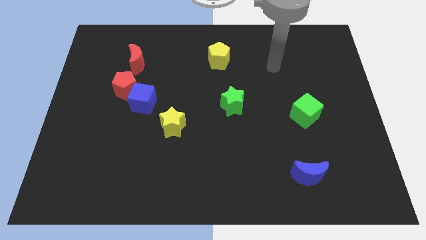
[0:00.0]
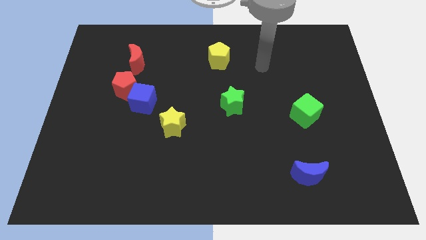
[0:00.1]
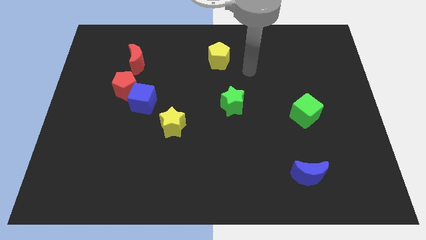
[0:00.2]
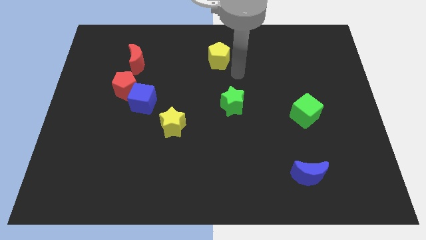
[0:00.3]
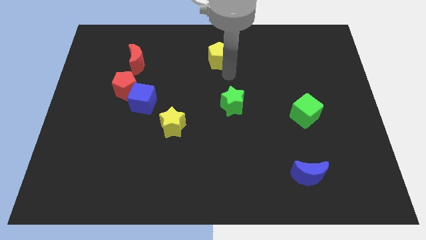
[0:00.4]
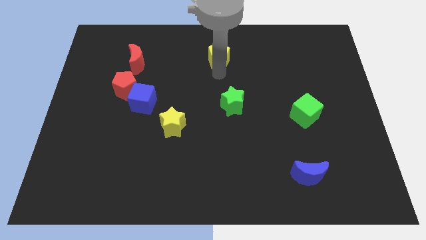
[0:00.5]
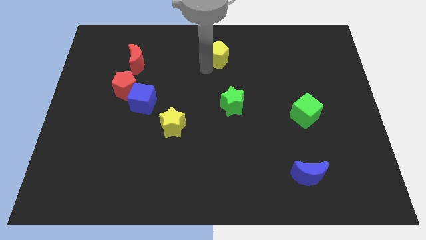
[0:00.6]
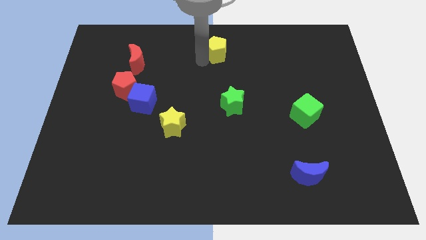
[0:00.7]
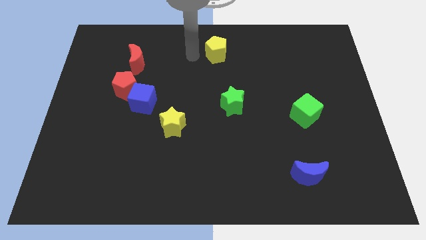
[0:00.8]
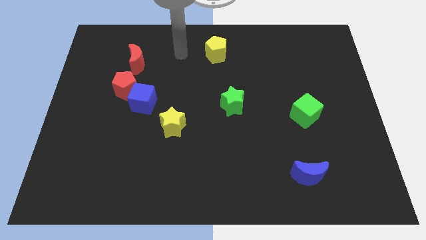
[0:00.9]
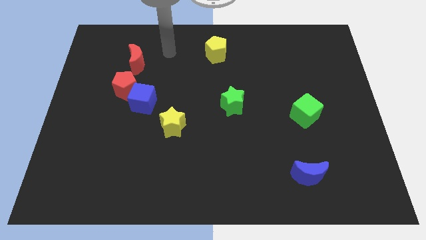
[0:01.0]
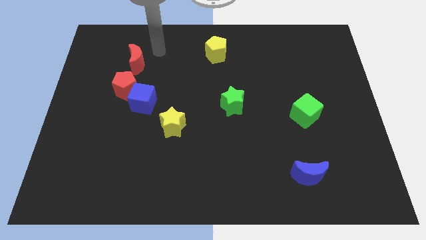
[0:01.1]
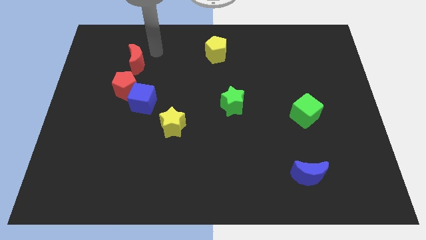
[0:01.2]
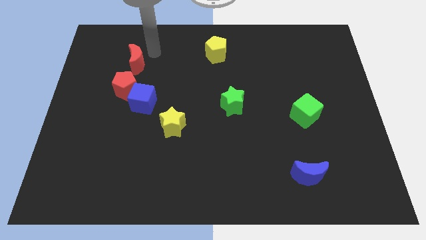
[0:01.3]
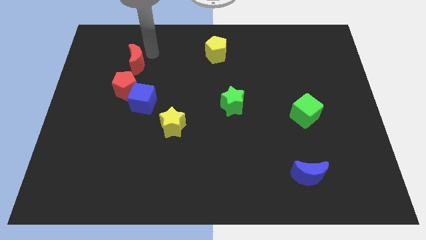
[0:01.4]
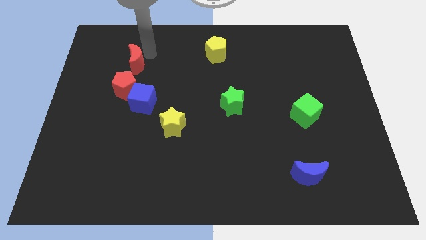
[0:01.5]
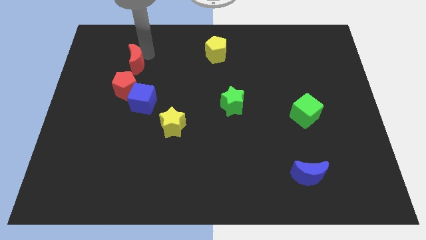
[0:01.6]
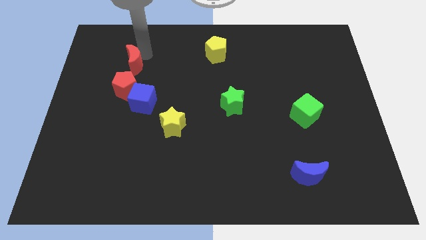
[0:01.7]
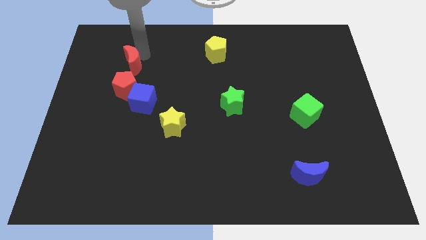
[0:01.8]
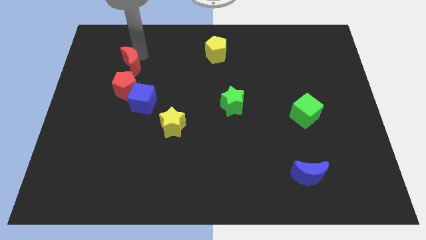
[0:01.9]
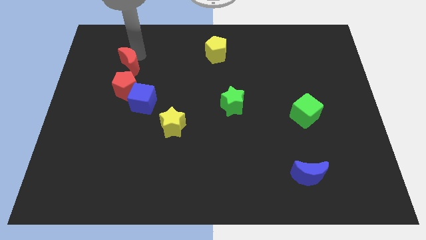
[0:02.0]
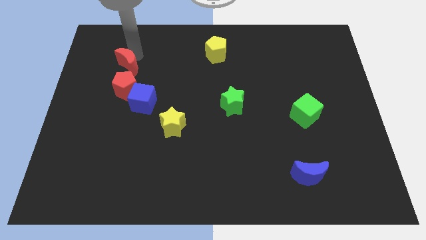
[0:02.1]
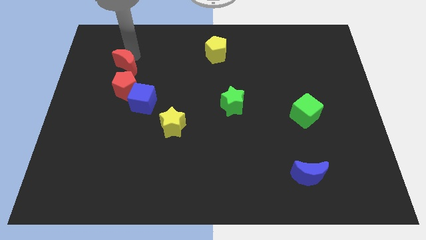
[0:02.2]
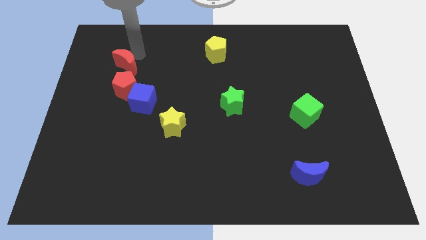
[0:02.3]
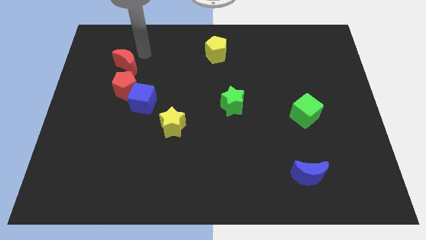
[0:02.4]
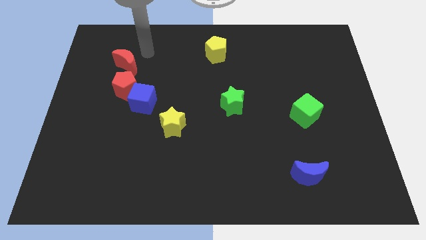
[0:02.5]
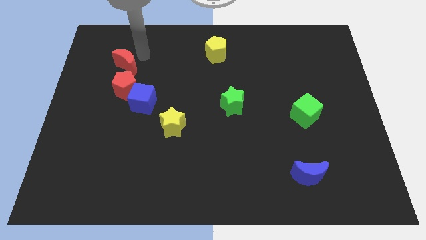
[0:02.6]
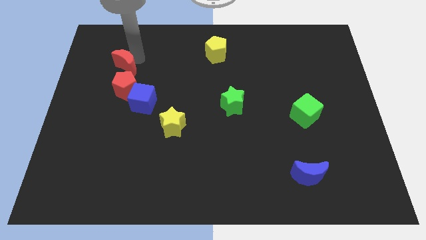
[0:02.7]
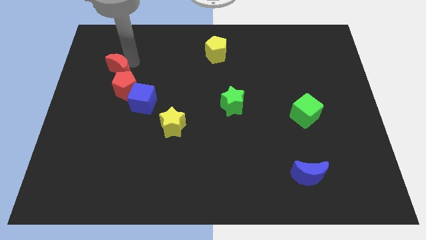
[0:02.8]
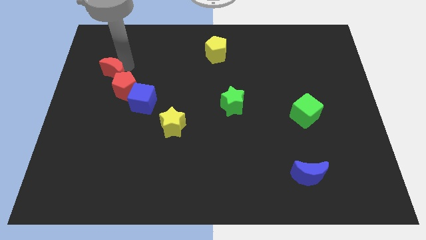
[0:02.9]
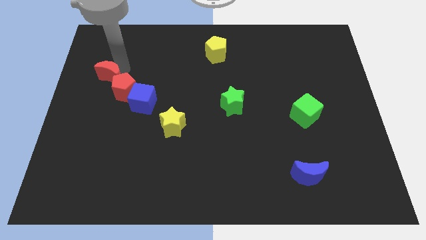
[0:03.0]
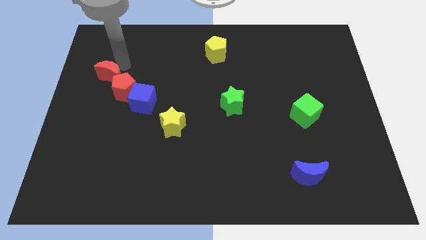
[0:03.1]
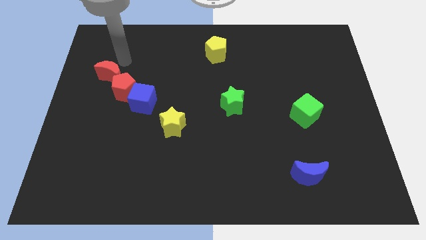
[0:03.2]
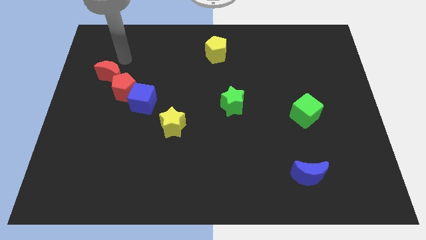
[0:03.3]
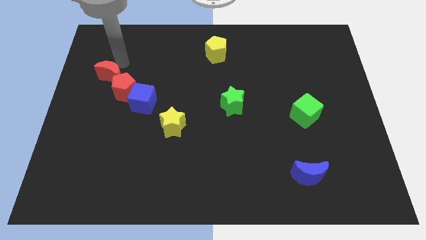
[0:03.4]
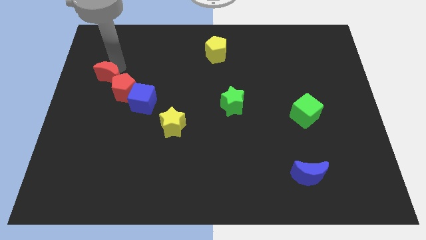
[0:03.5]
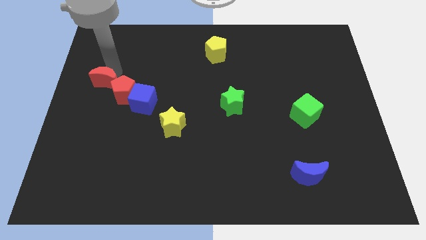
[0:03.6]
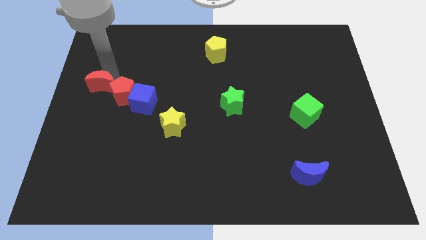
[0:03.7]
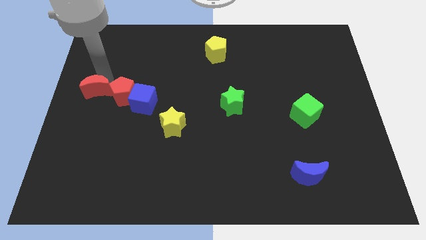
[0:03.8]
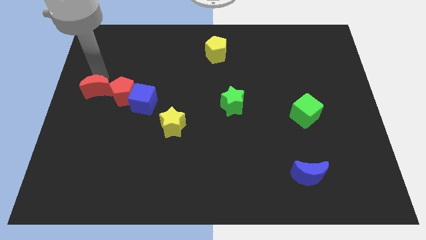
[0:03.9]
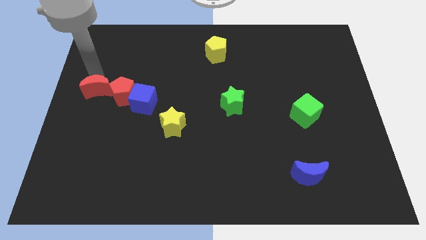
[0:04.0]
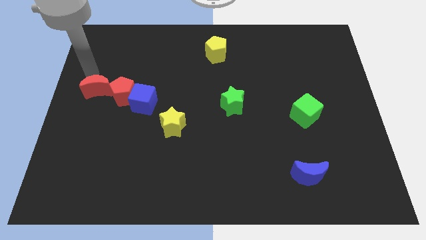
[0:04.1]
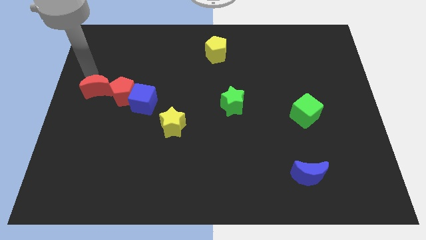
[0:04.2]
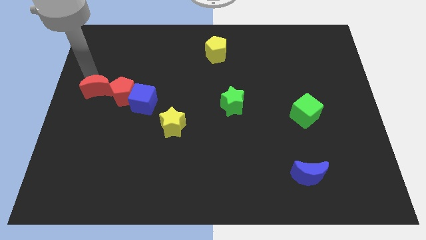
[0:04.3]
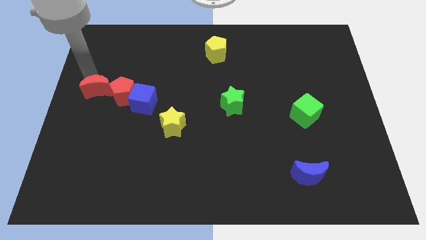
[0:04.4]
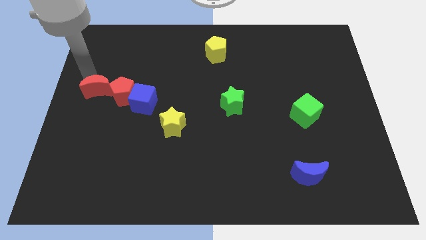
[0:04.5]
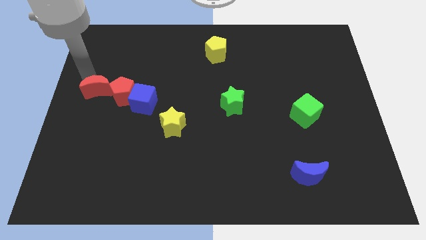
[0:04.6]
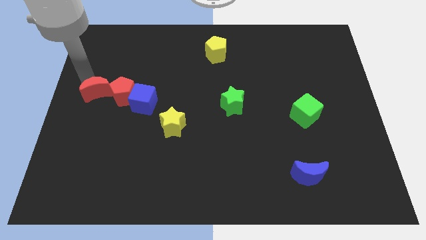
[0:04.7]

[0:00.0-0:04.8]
slightly push the red moon down

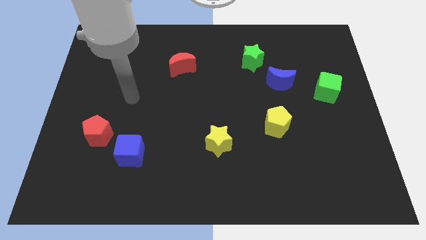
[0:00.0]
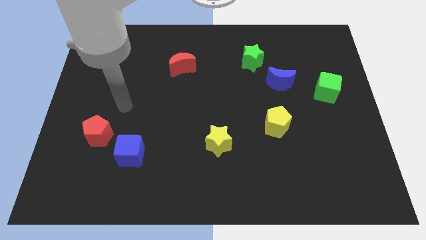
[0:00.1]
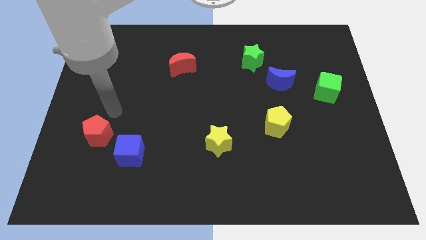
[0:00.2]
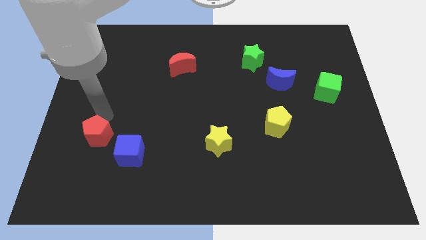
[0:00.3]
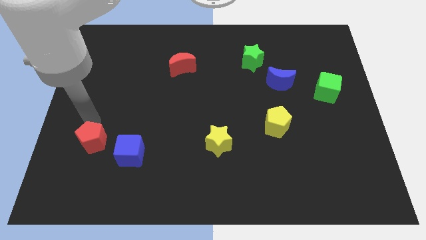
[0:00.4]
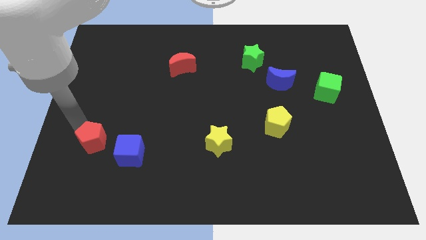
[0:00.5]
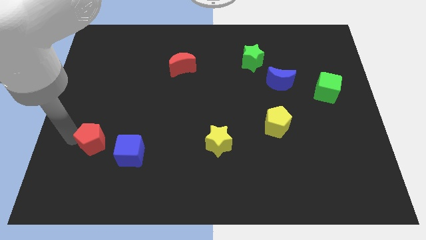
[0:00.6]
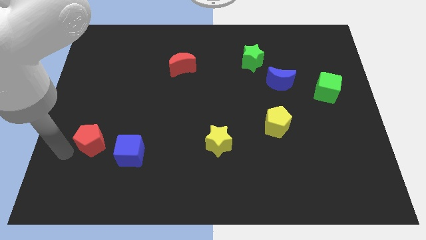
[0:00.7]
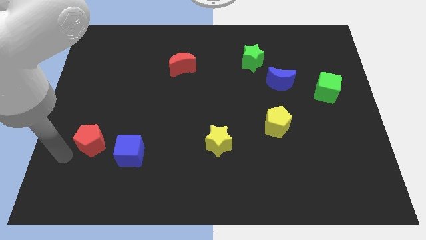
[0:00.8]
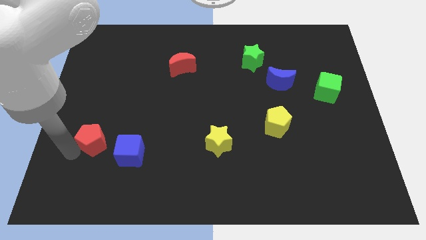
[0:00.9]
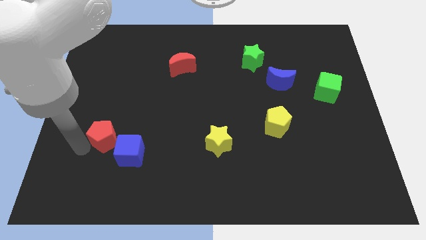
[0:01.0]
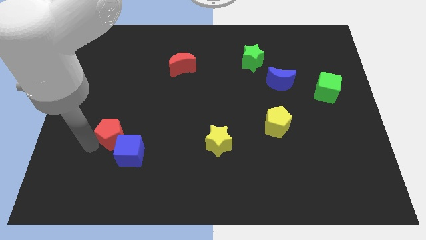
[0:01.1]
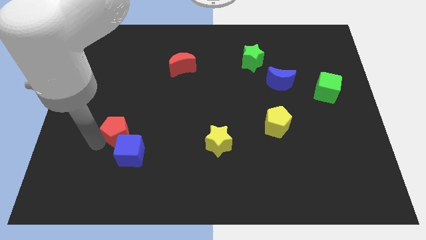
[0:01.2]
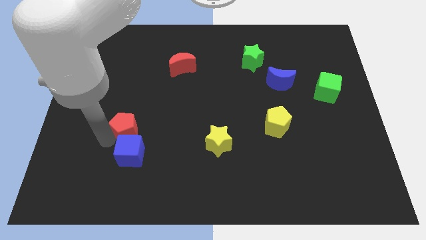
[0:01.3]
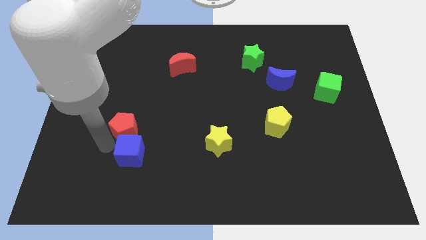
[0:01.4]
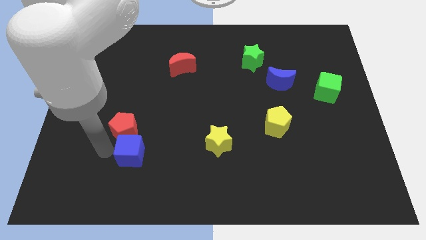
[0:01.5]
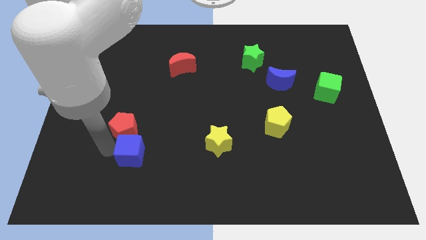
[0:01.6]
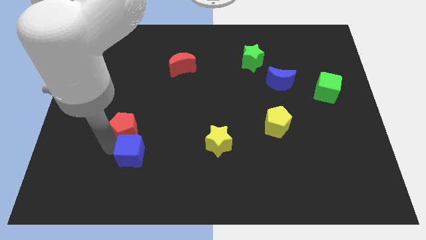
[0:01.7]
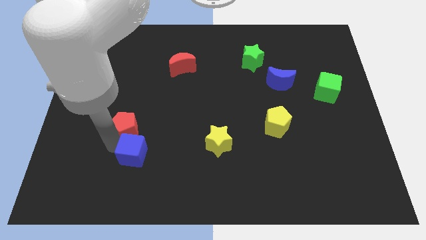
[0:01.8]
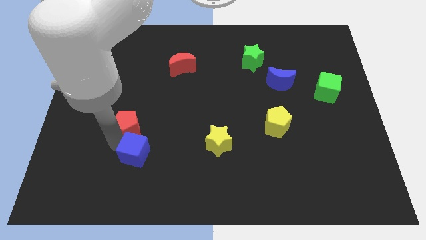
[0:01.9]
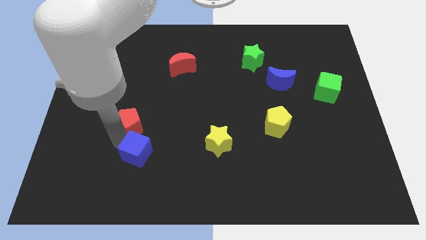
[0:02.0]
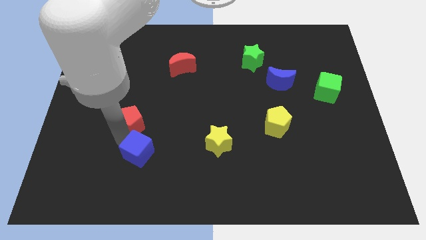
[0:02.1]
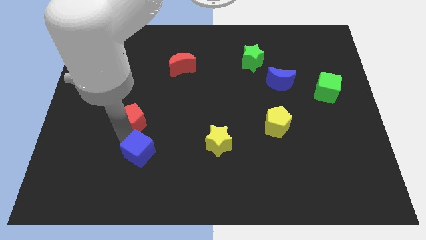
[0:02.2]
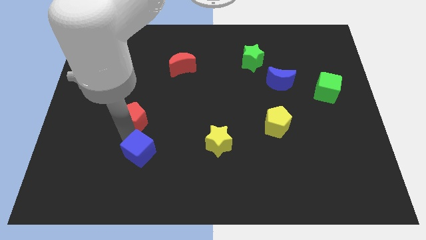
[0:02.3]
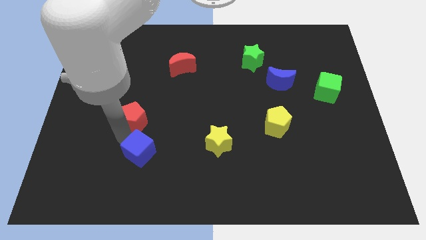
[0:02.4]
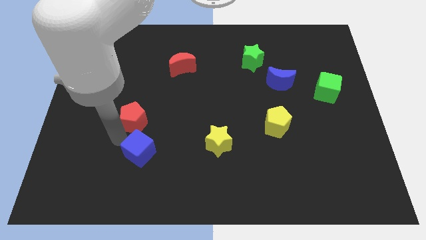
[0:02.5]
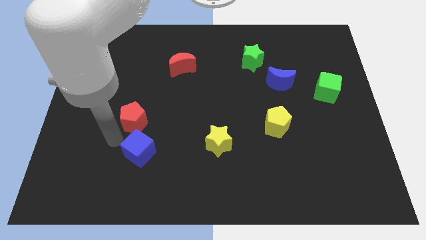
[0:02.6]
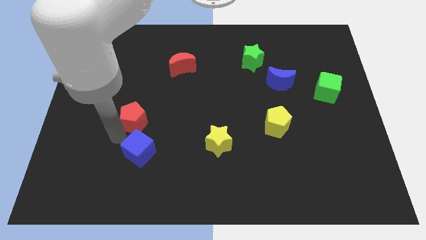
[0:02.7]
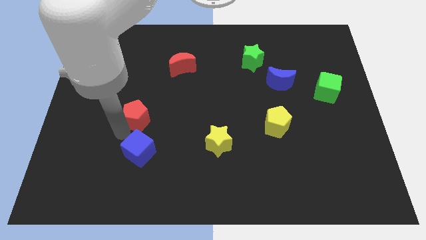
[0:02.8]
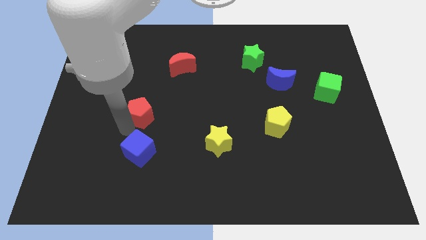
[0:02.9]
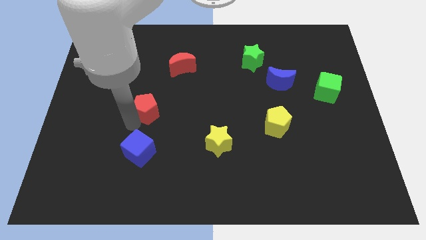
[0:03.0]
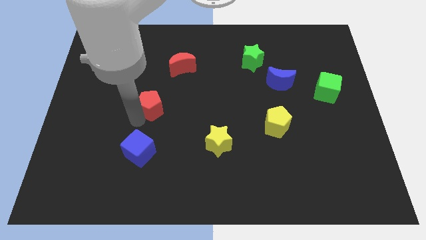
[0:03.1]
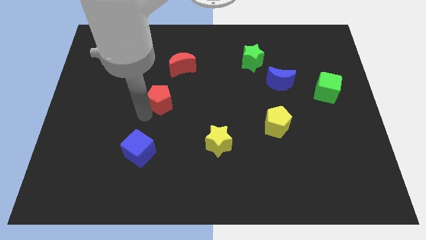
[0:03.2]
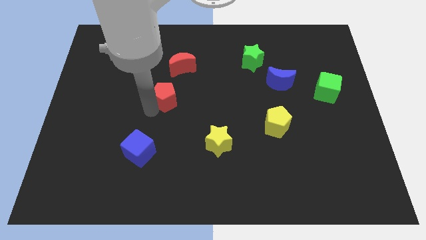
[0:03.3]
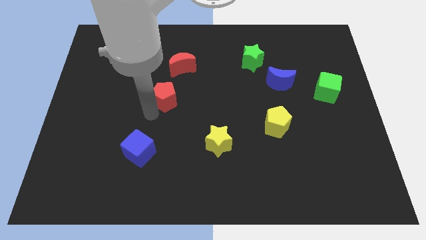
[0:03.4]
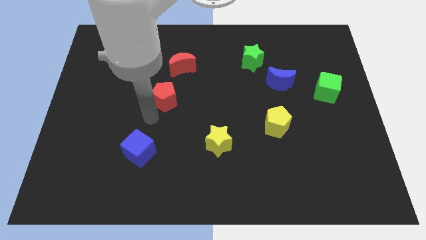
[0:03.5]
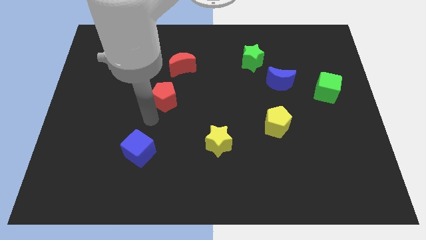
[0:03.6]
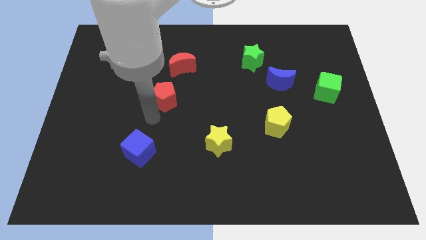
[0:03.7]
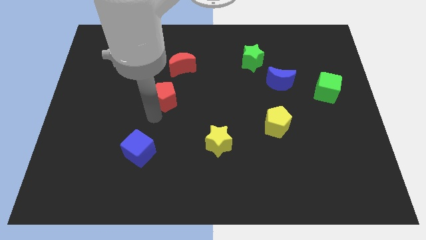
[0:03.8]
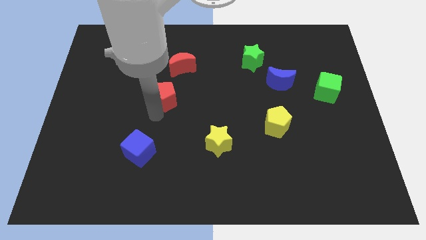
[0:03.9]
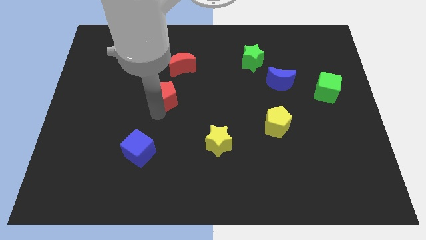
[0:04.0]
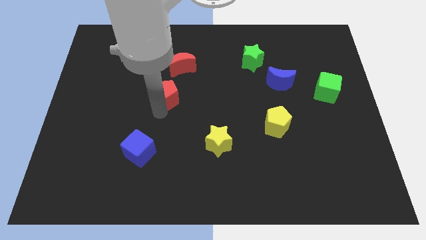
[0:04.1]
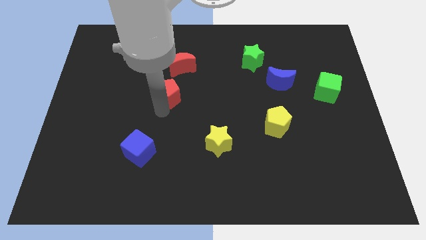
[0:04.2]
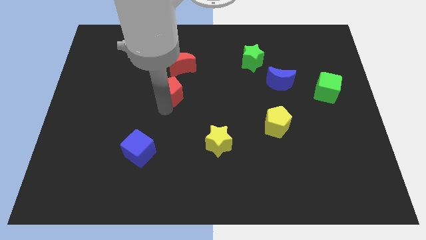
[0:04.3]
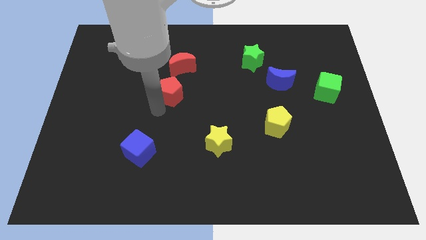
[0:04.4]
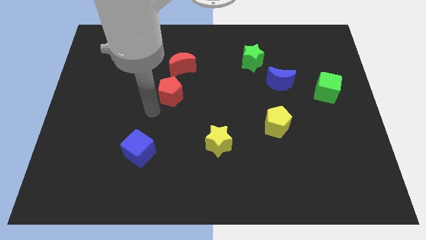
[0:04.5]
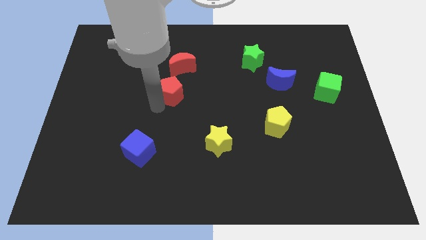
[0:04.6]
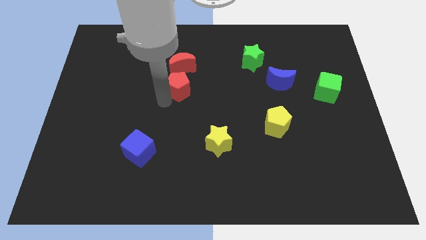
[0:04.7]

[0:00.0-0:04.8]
slide the red pentagon upwards and then to the right
